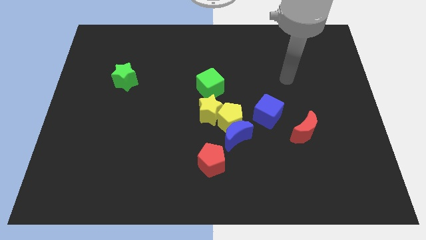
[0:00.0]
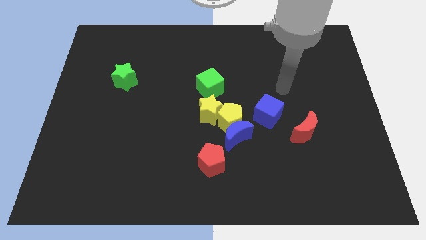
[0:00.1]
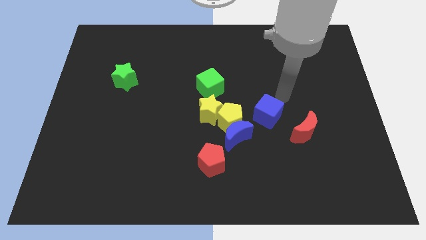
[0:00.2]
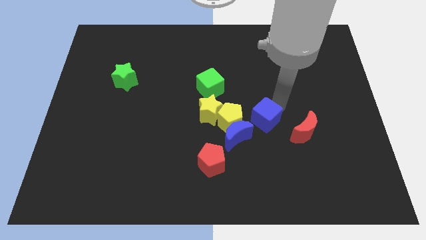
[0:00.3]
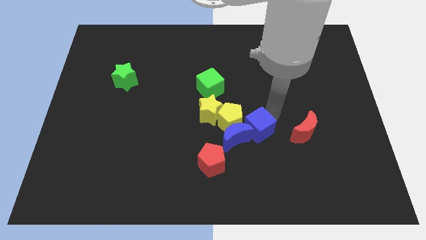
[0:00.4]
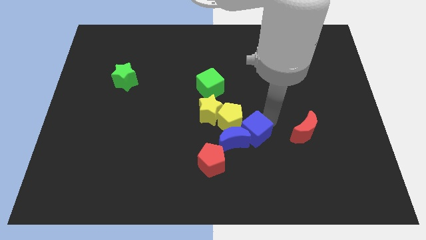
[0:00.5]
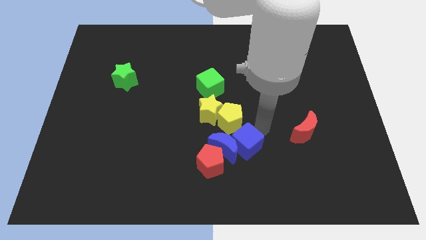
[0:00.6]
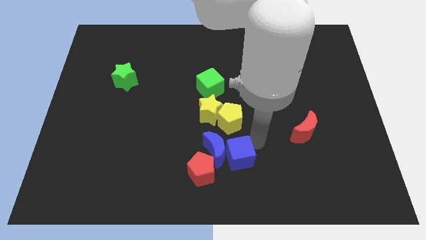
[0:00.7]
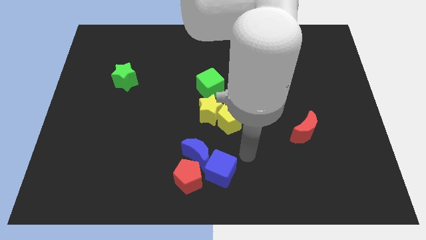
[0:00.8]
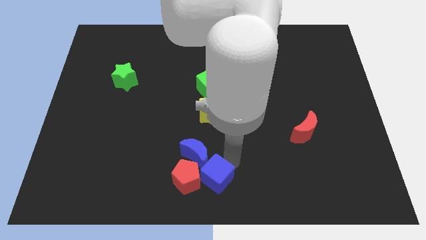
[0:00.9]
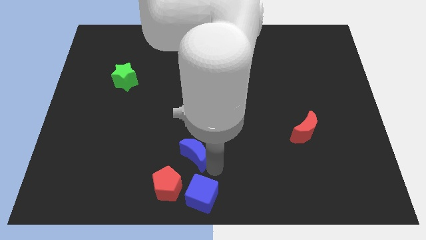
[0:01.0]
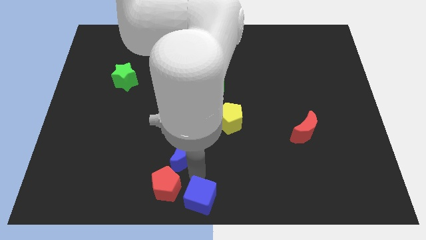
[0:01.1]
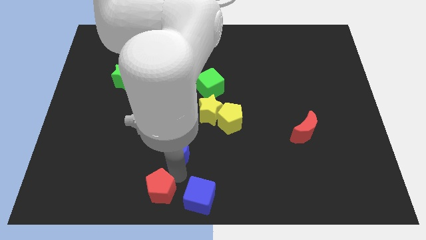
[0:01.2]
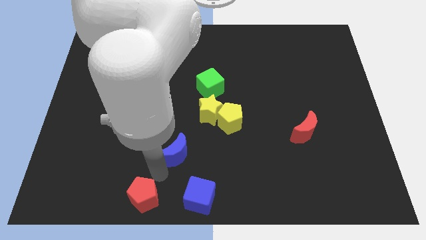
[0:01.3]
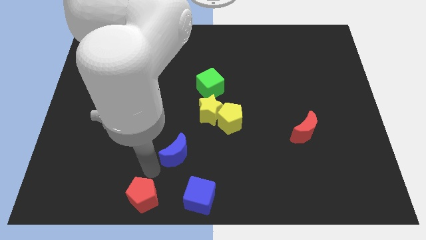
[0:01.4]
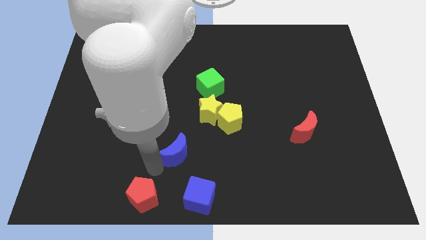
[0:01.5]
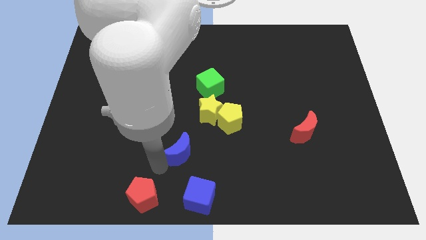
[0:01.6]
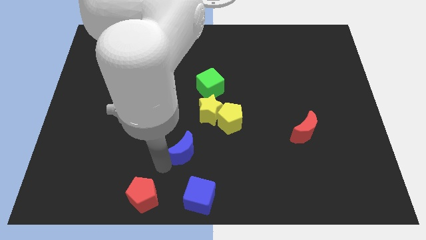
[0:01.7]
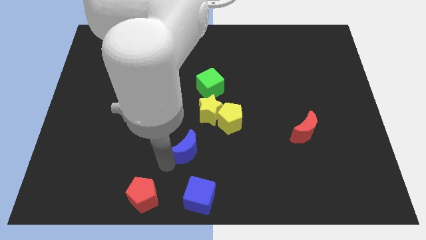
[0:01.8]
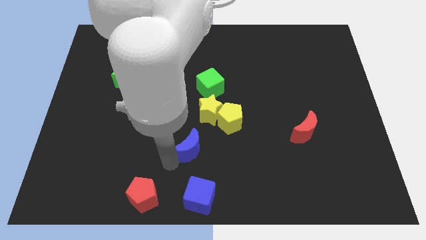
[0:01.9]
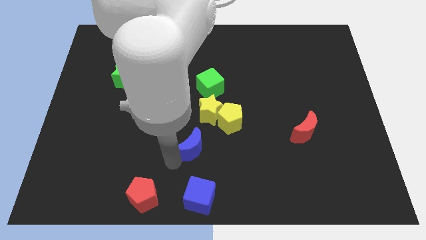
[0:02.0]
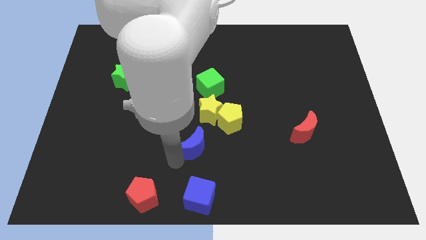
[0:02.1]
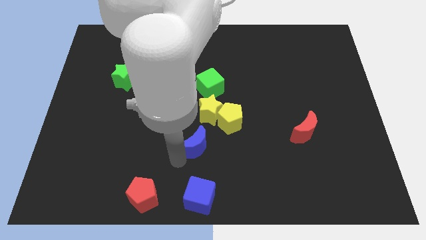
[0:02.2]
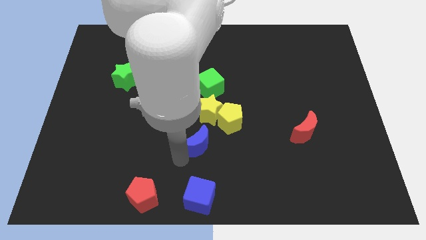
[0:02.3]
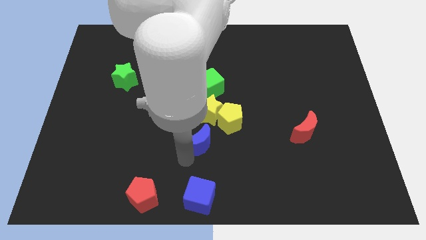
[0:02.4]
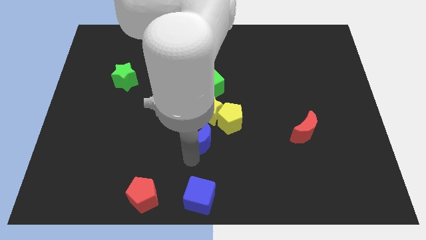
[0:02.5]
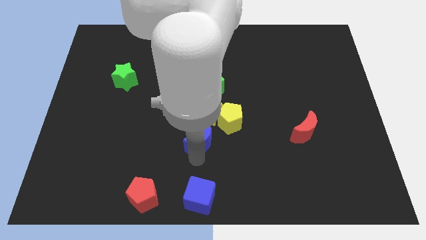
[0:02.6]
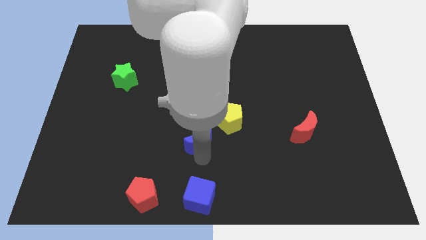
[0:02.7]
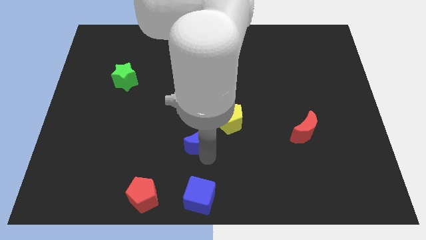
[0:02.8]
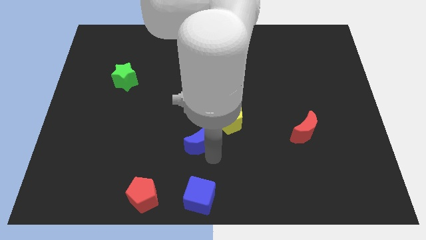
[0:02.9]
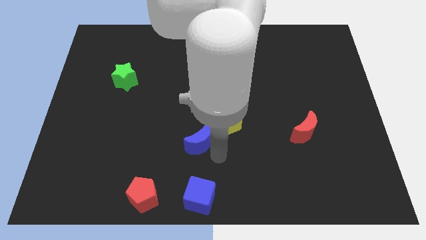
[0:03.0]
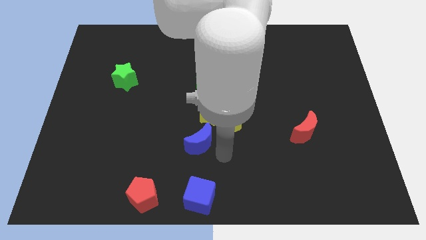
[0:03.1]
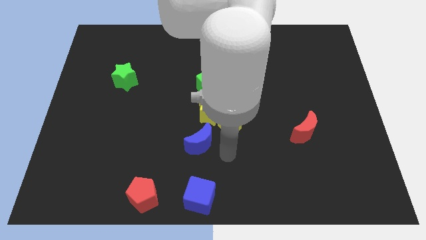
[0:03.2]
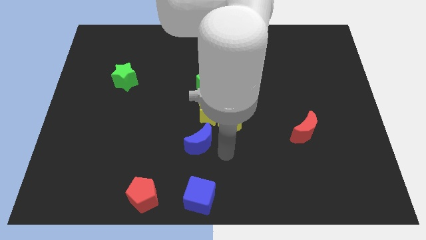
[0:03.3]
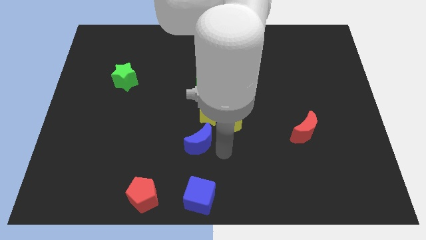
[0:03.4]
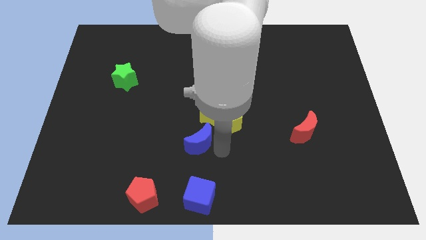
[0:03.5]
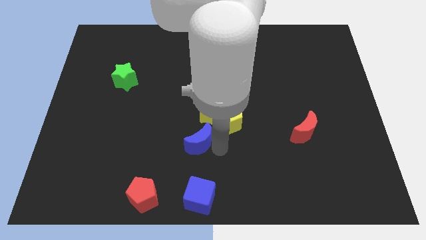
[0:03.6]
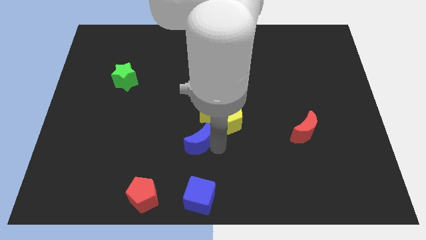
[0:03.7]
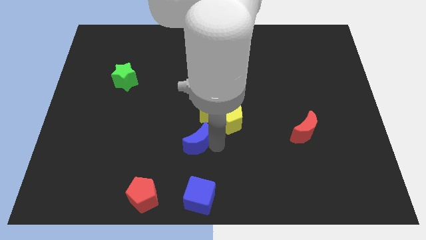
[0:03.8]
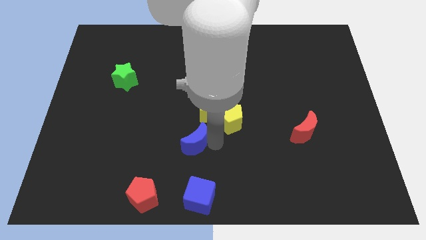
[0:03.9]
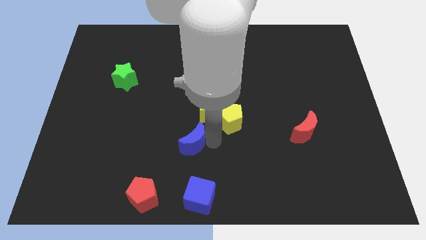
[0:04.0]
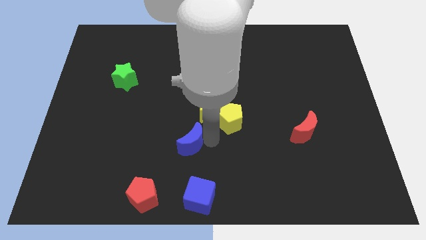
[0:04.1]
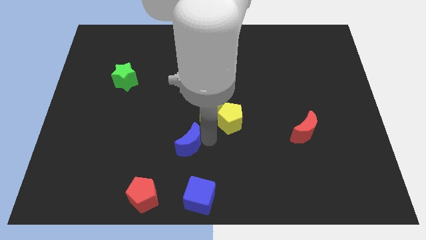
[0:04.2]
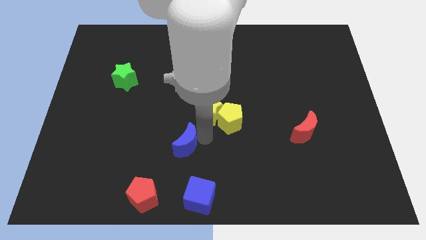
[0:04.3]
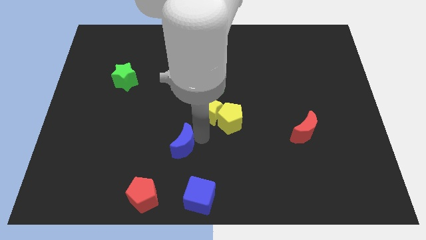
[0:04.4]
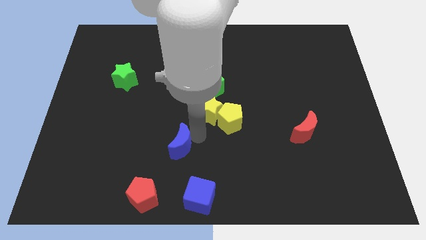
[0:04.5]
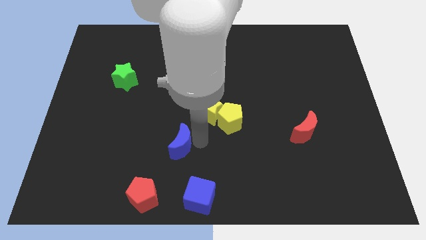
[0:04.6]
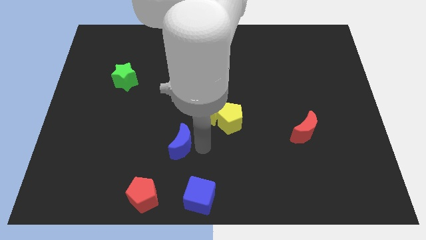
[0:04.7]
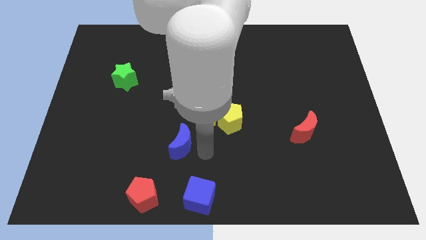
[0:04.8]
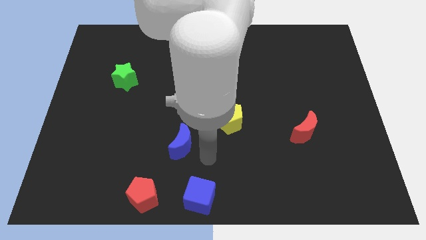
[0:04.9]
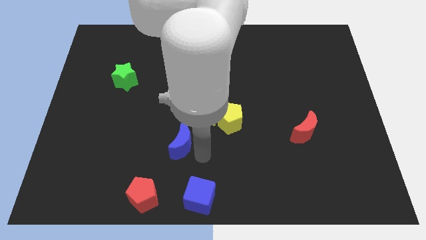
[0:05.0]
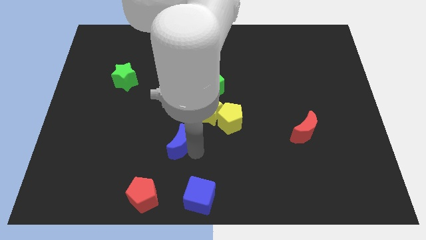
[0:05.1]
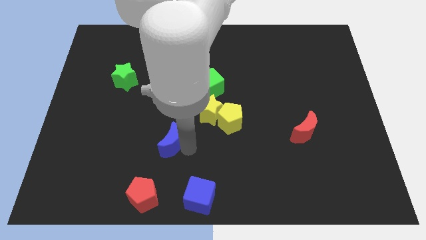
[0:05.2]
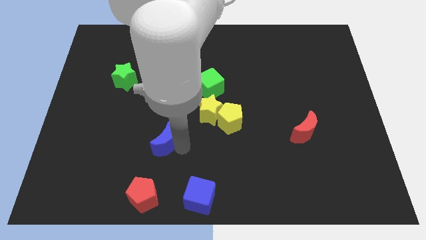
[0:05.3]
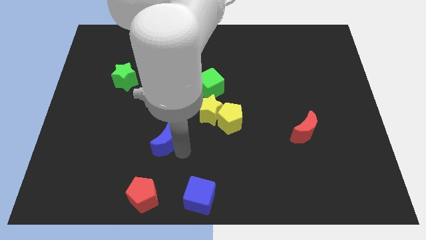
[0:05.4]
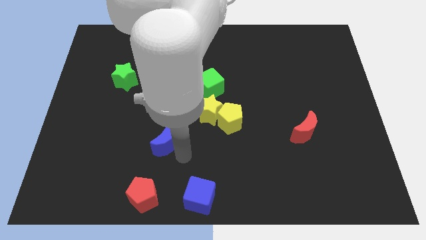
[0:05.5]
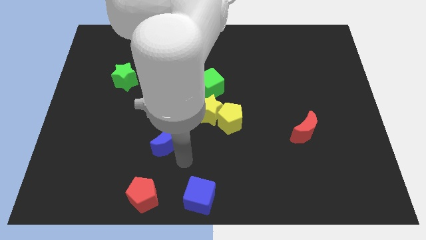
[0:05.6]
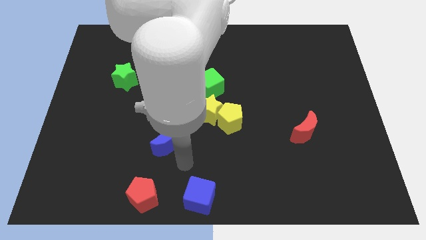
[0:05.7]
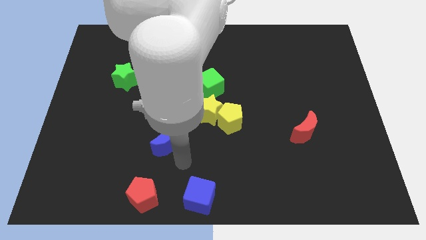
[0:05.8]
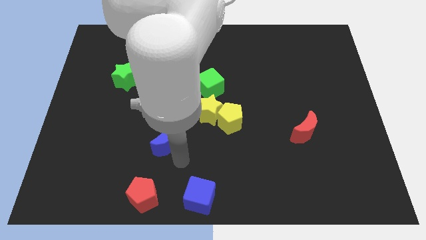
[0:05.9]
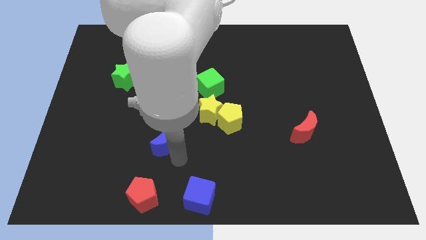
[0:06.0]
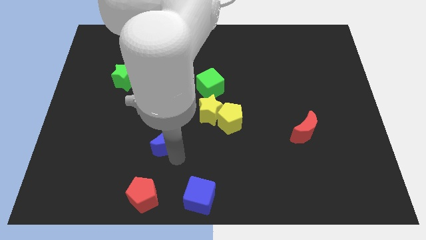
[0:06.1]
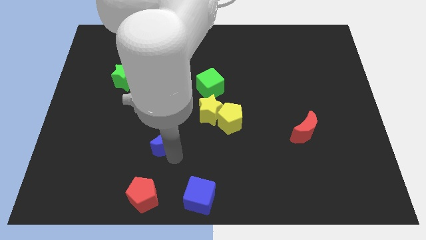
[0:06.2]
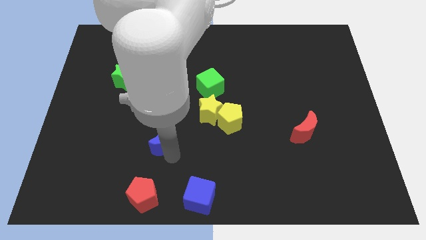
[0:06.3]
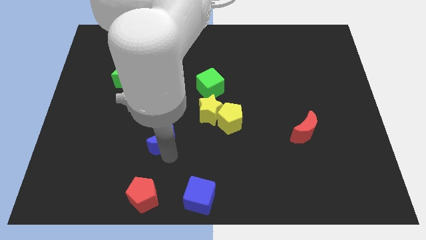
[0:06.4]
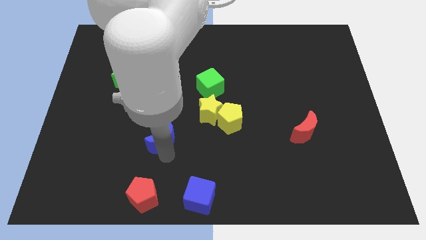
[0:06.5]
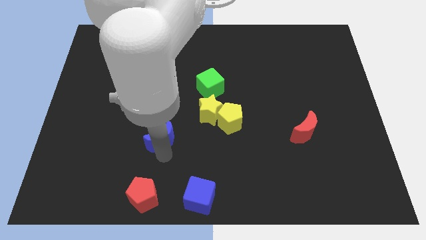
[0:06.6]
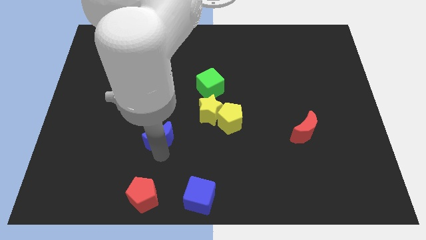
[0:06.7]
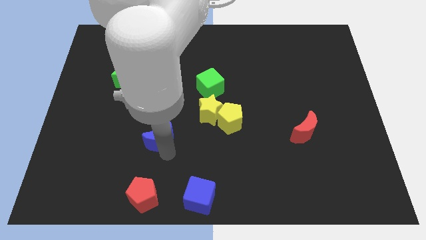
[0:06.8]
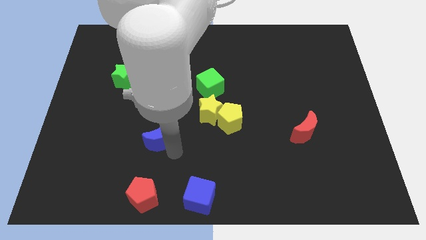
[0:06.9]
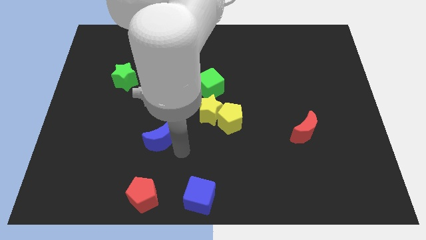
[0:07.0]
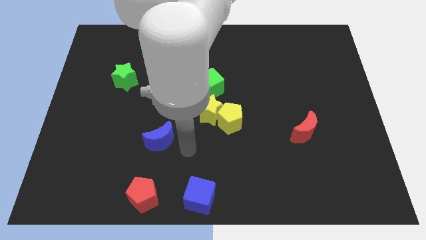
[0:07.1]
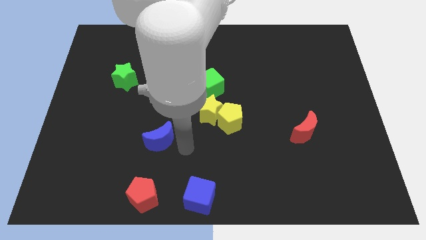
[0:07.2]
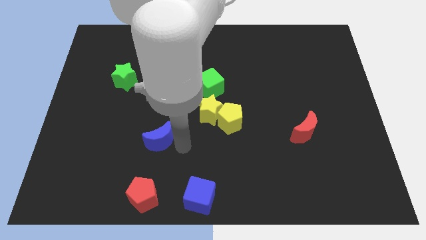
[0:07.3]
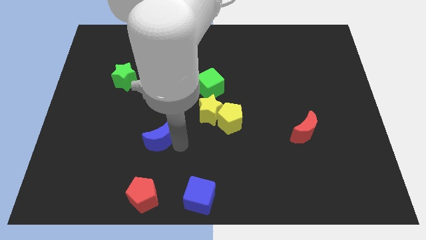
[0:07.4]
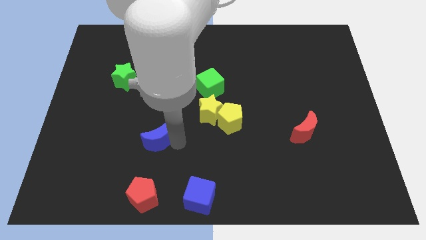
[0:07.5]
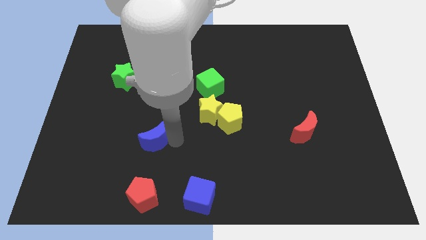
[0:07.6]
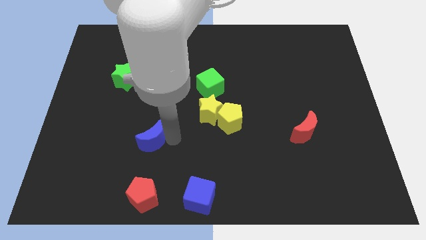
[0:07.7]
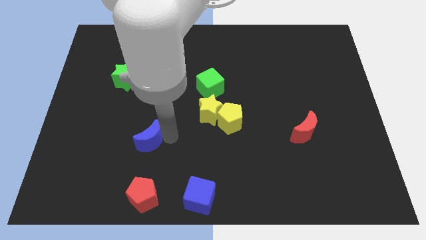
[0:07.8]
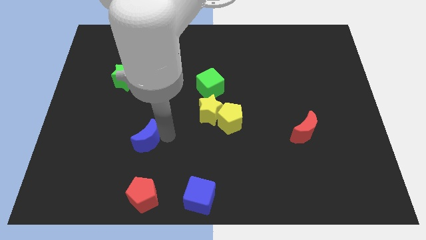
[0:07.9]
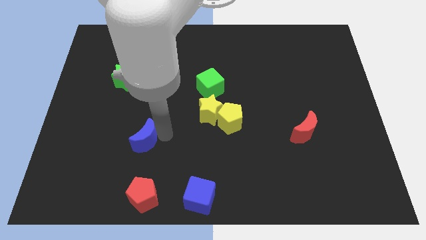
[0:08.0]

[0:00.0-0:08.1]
move the blue moon to the left
